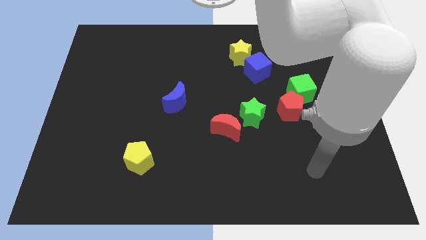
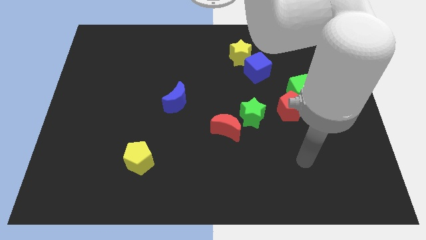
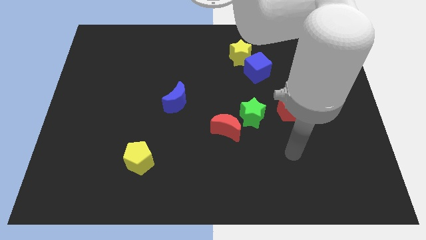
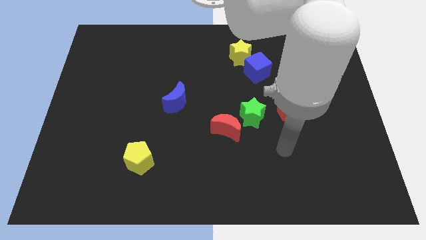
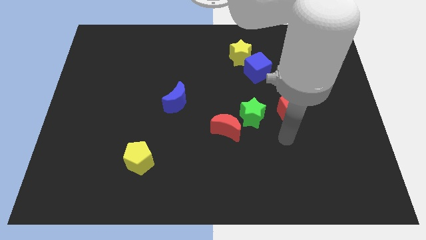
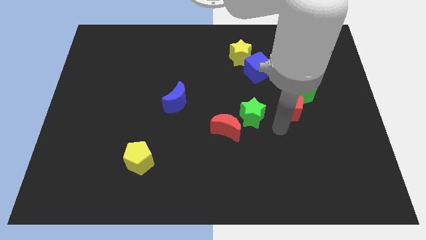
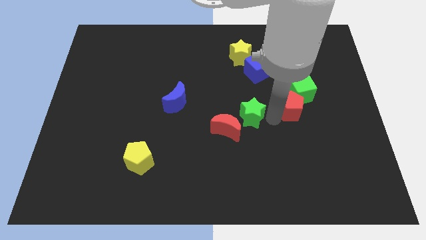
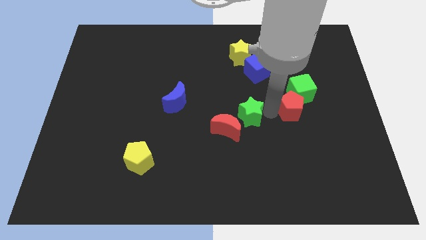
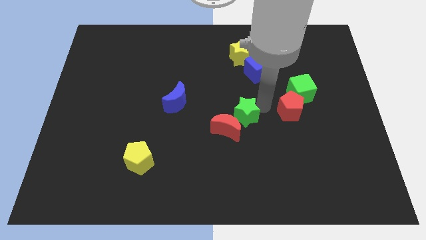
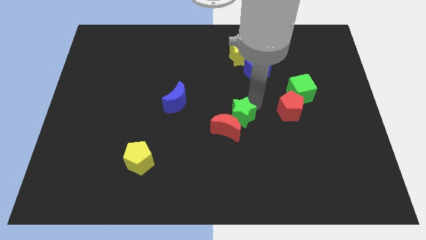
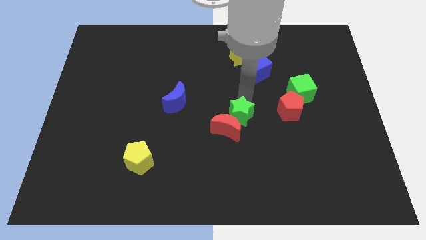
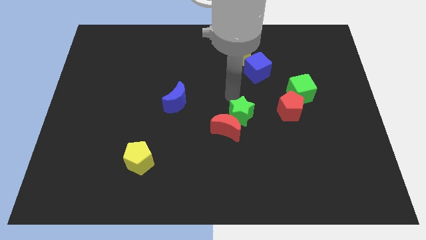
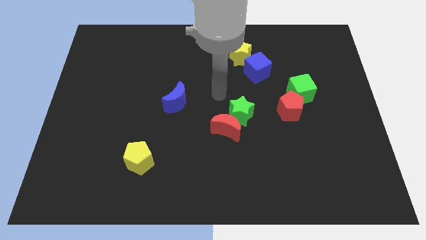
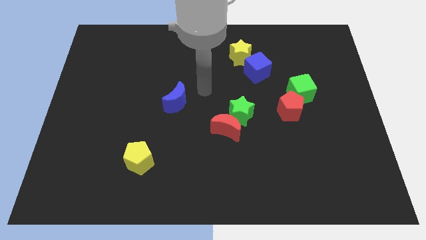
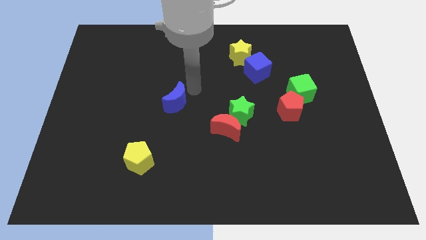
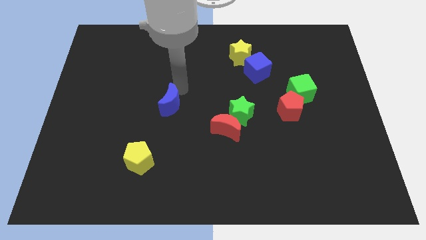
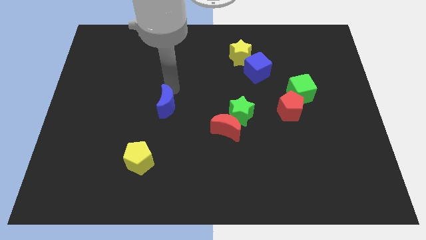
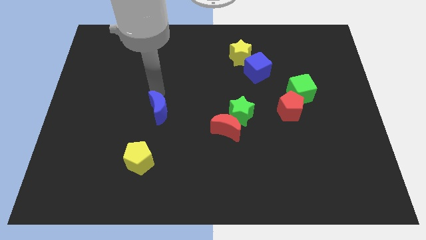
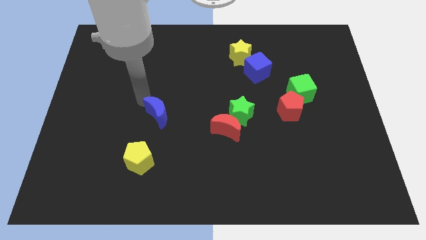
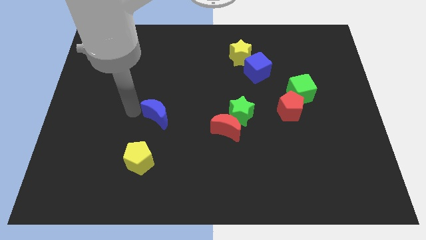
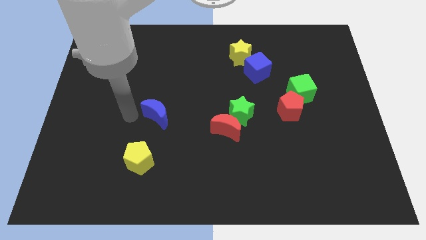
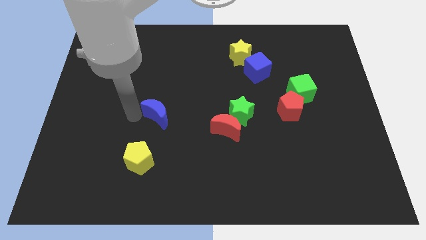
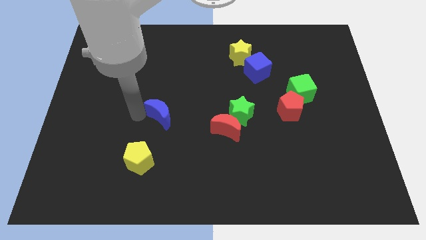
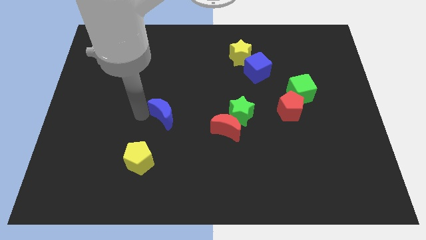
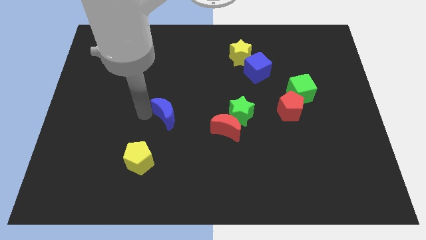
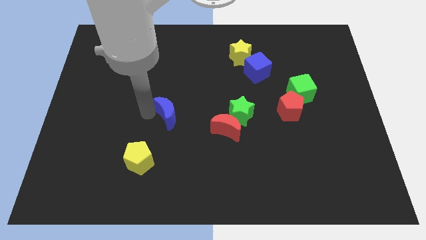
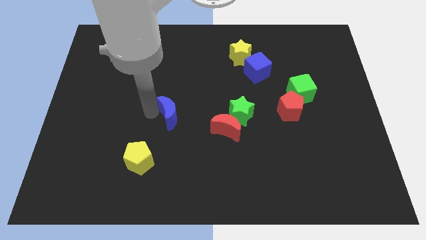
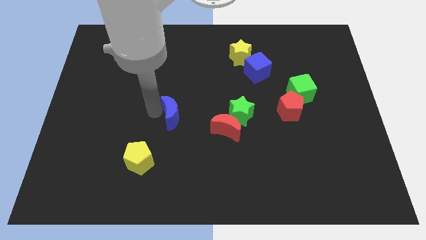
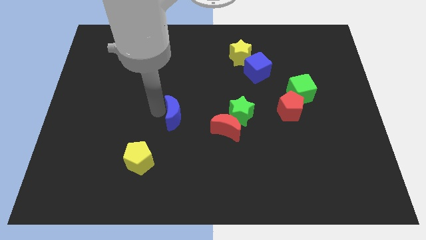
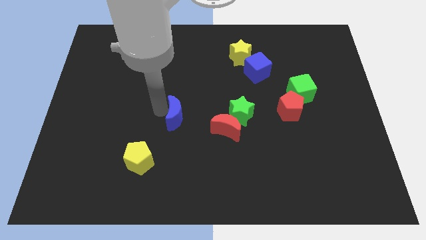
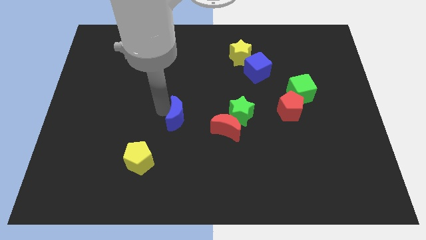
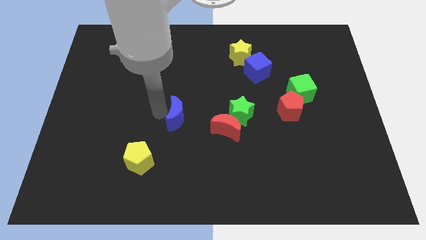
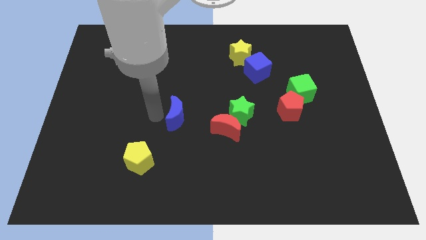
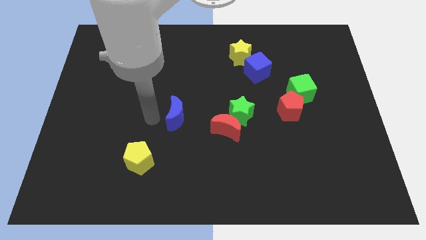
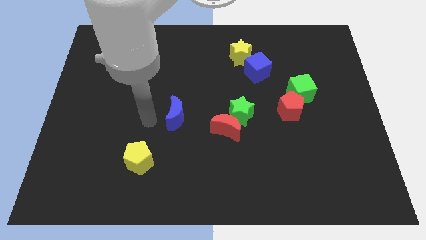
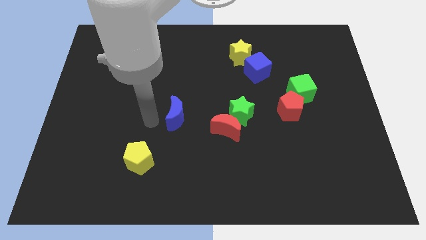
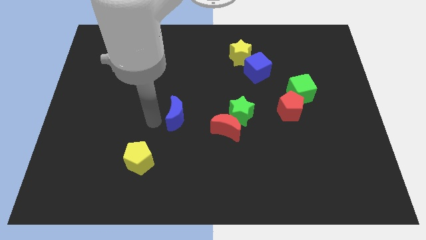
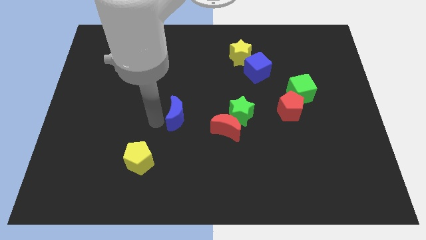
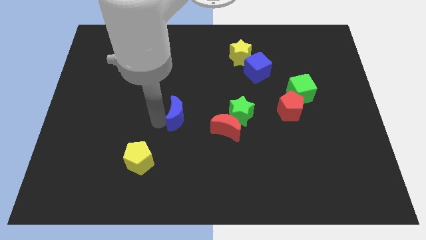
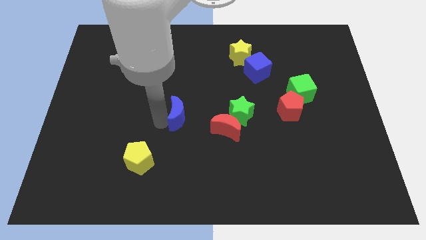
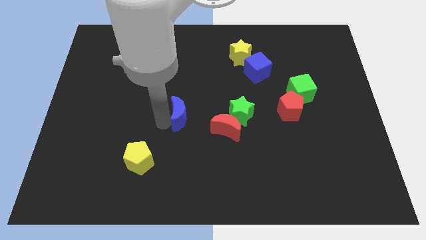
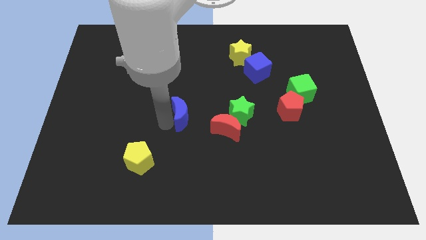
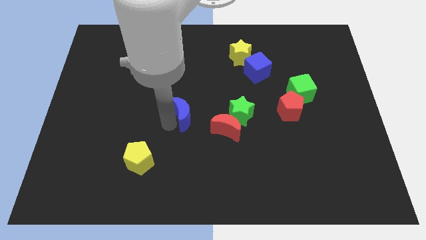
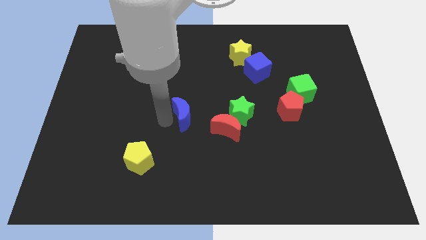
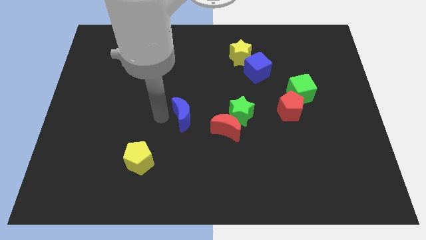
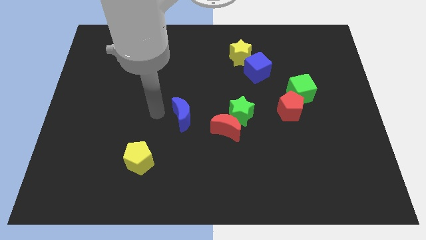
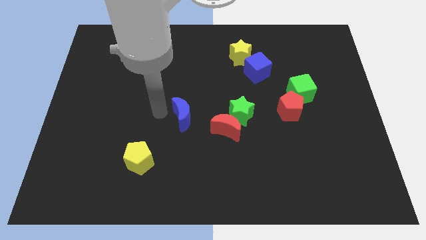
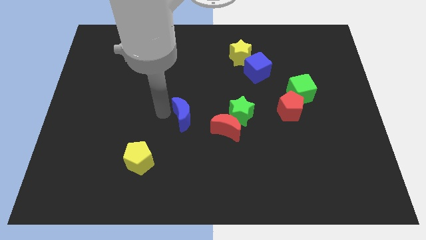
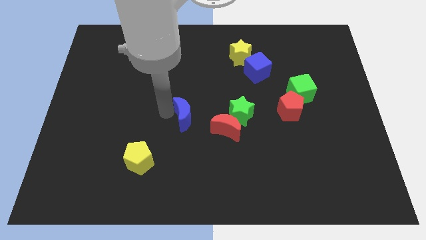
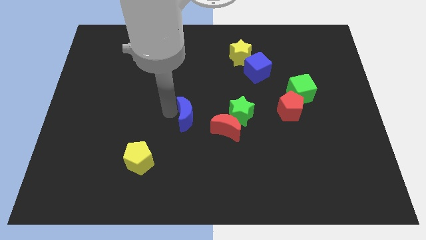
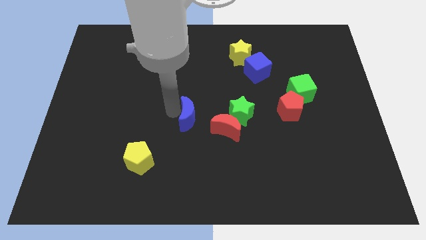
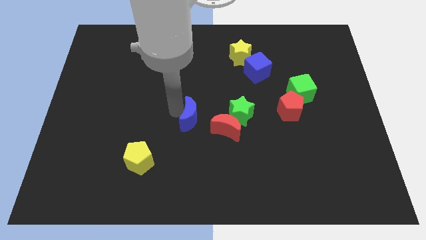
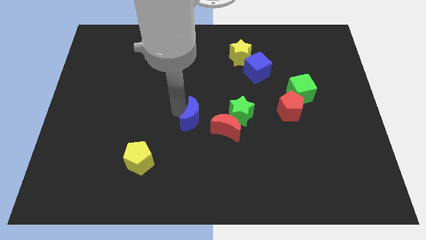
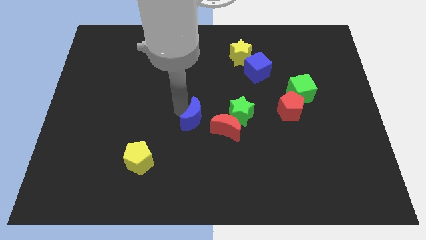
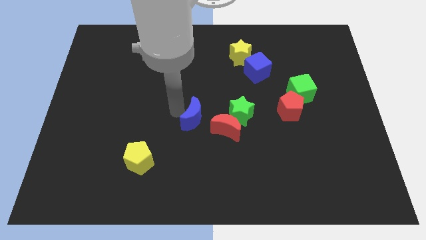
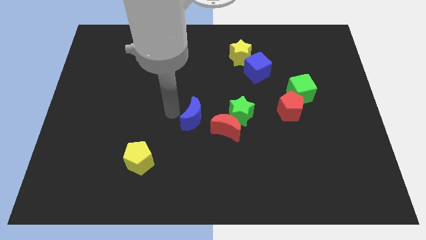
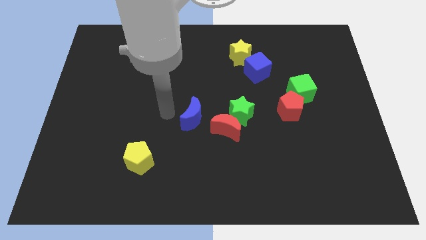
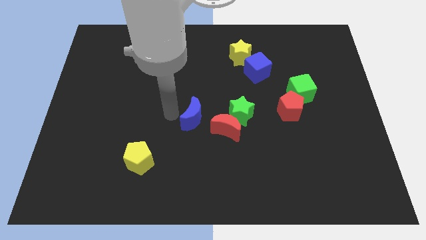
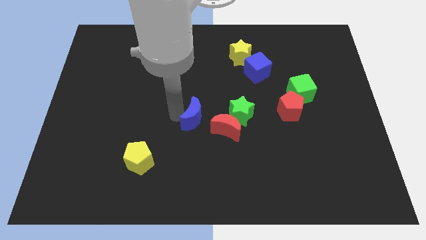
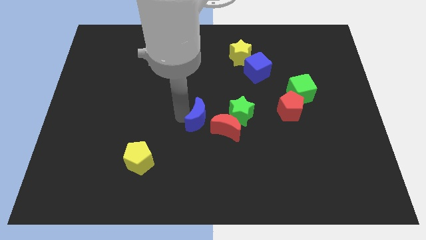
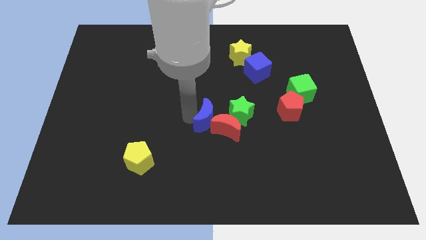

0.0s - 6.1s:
move the blue moon to the red moon

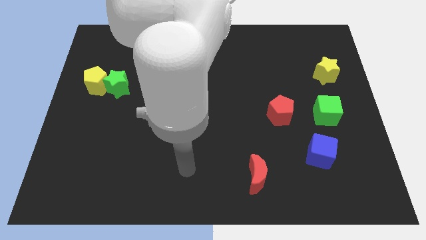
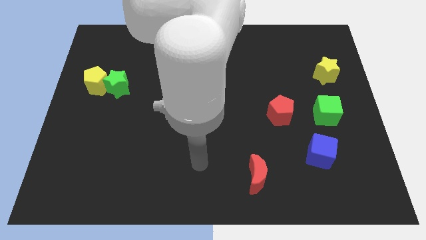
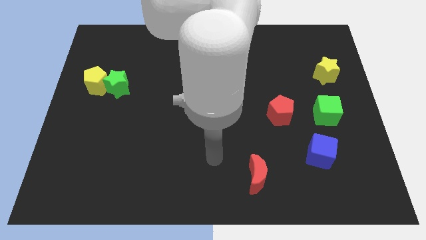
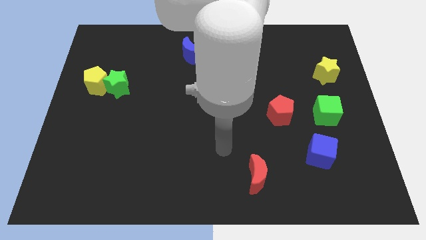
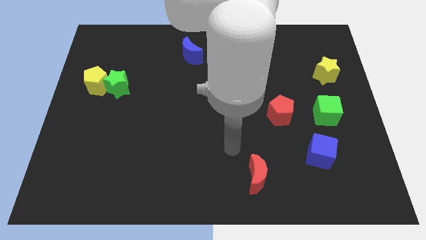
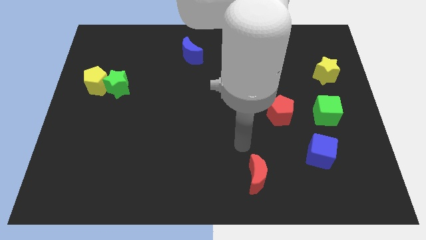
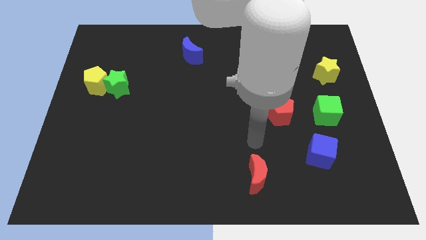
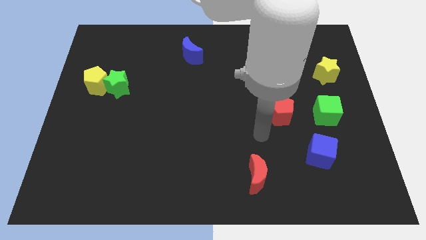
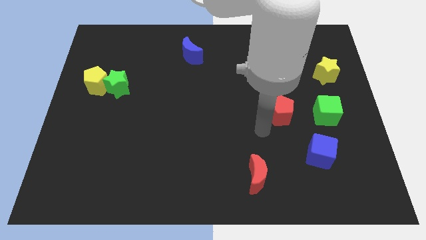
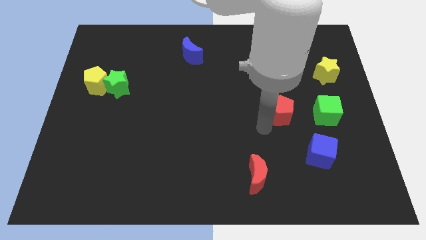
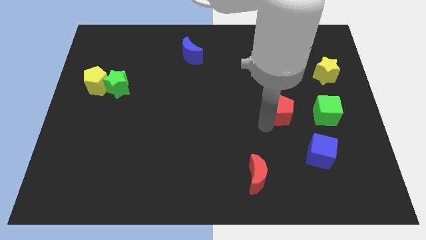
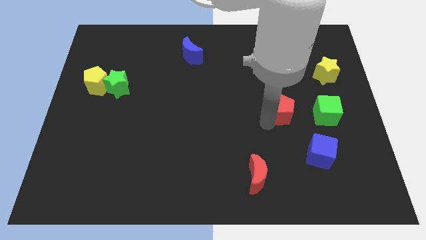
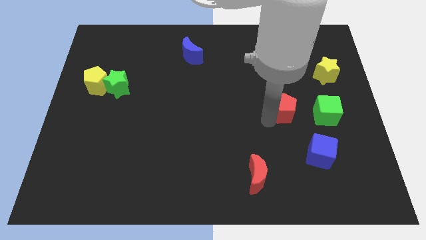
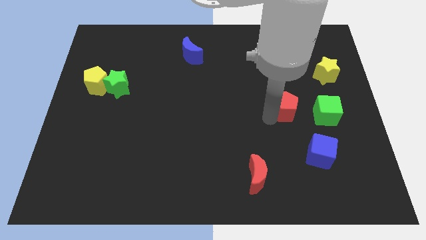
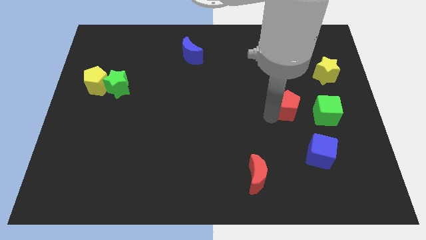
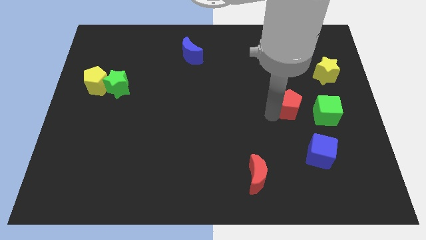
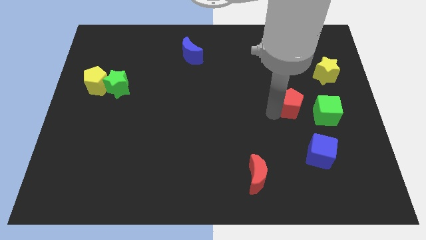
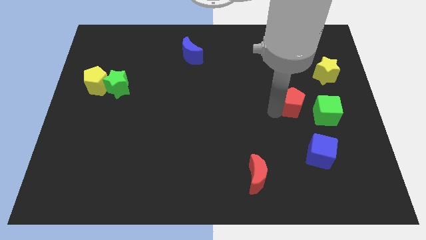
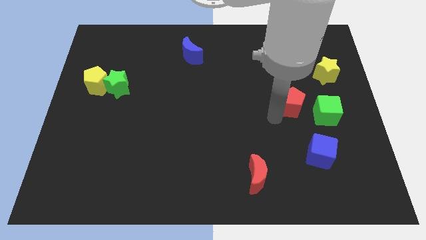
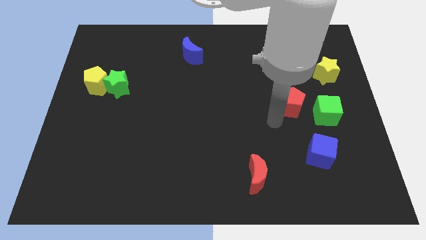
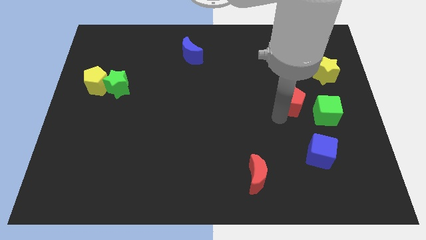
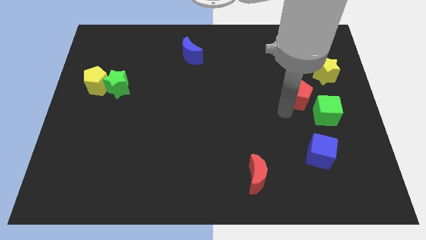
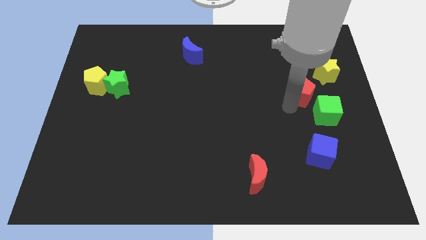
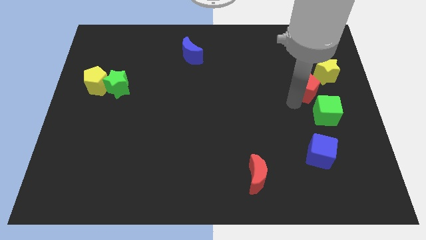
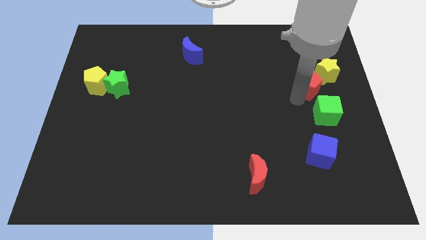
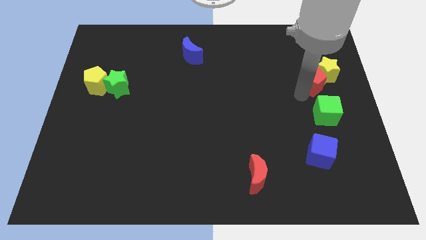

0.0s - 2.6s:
push the red pentagon towards the yellow star
